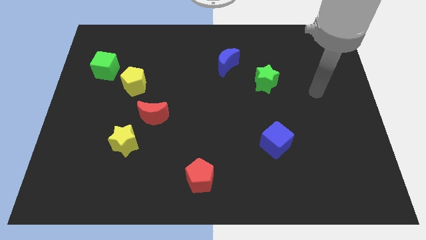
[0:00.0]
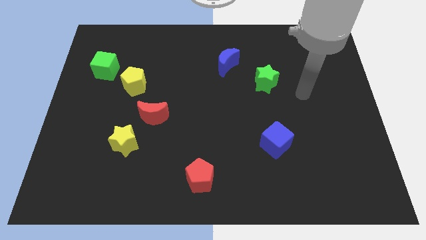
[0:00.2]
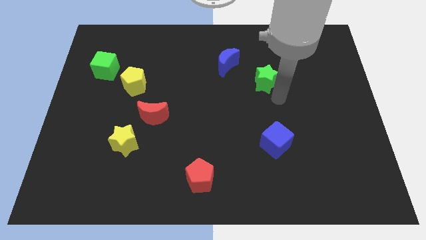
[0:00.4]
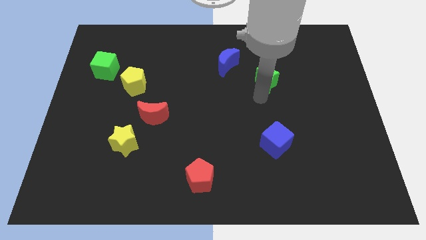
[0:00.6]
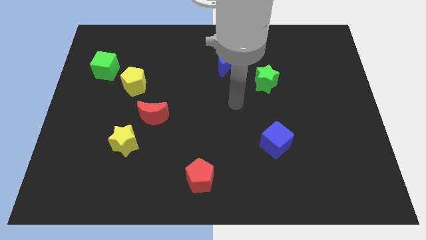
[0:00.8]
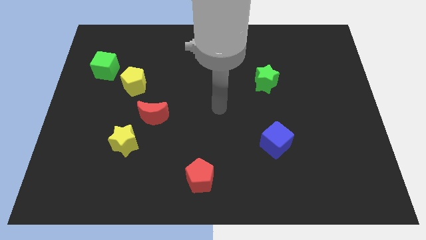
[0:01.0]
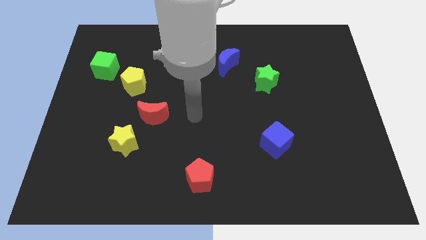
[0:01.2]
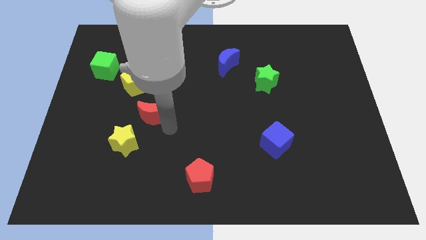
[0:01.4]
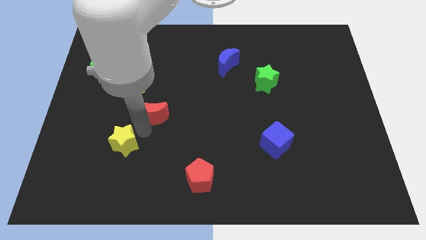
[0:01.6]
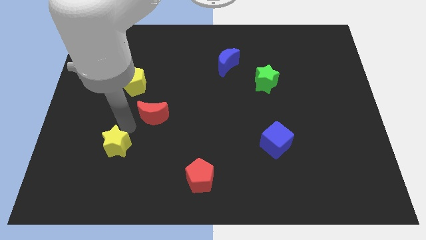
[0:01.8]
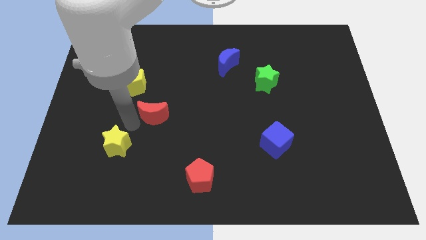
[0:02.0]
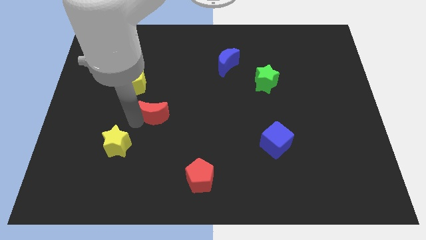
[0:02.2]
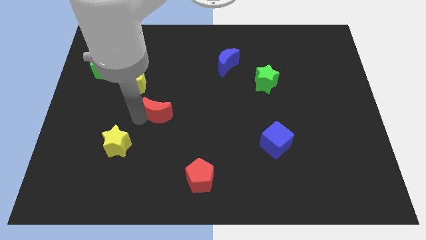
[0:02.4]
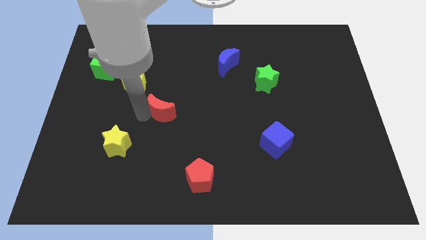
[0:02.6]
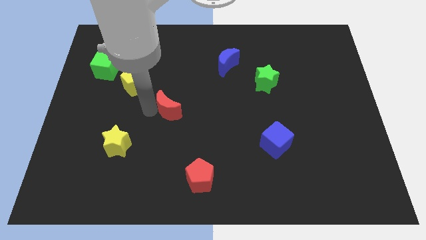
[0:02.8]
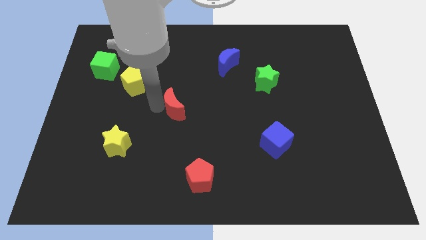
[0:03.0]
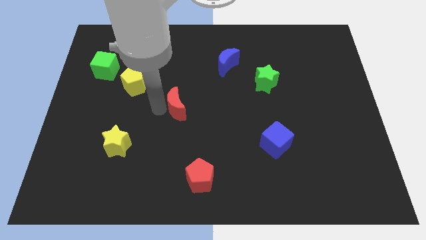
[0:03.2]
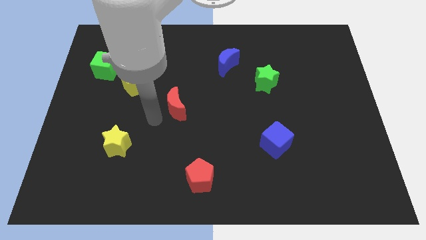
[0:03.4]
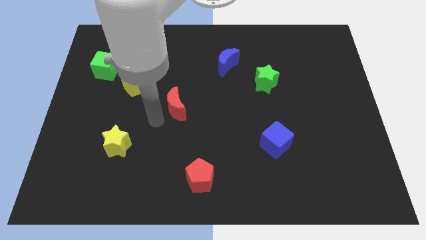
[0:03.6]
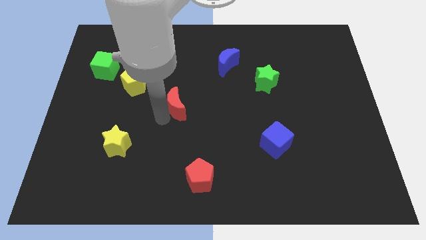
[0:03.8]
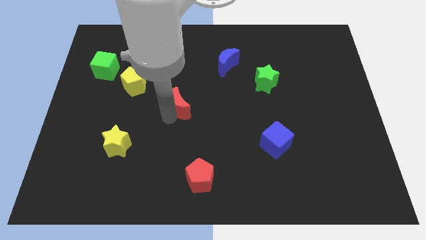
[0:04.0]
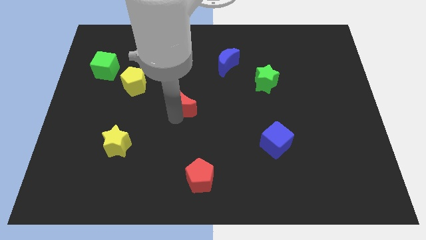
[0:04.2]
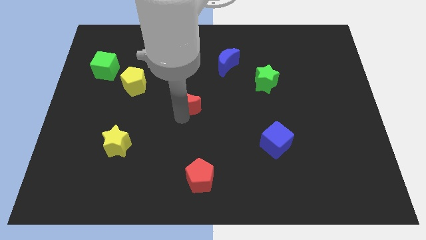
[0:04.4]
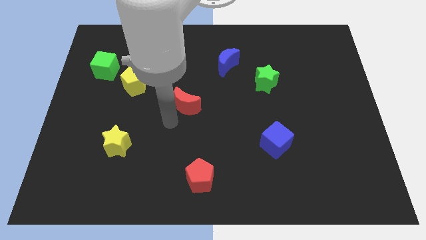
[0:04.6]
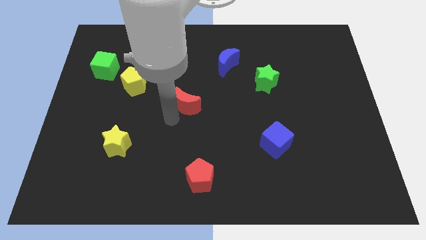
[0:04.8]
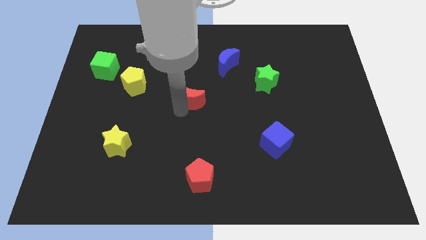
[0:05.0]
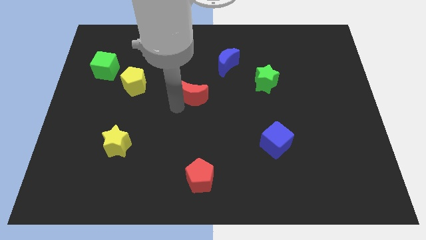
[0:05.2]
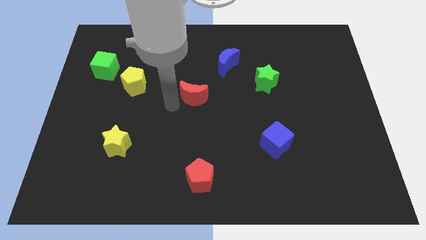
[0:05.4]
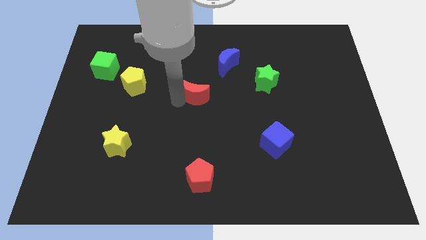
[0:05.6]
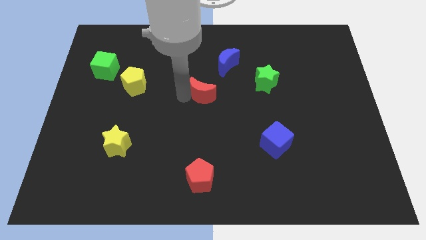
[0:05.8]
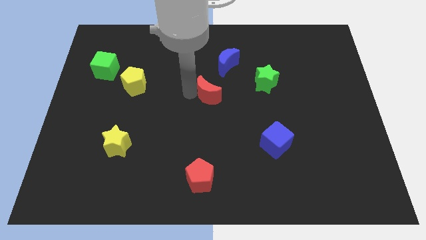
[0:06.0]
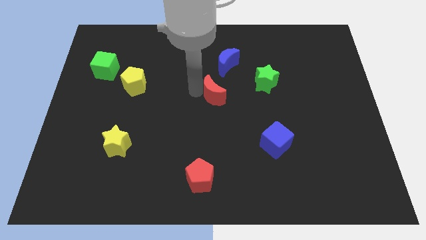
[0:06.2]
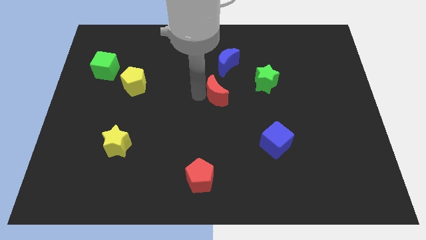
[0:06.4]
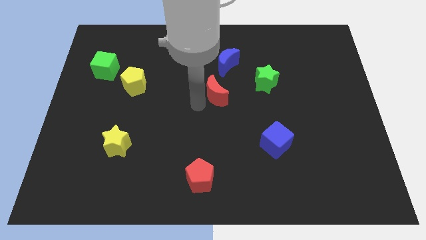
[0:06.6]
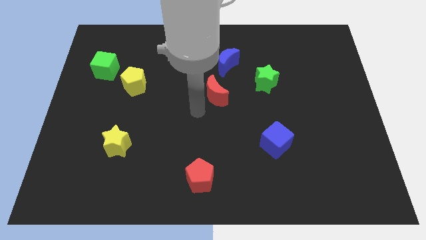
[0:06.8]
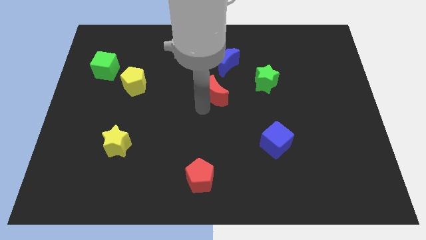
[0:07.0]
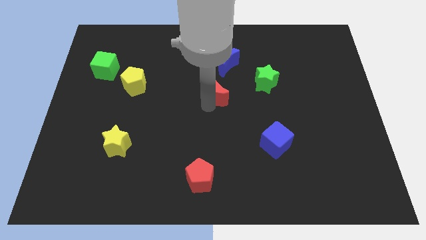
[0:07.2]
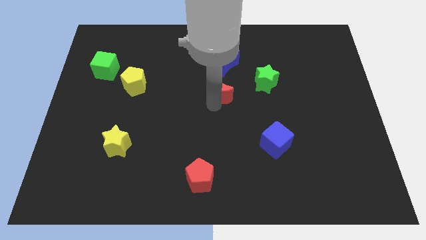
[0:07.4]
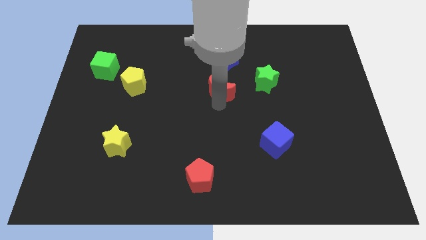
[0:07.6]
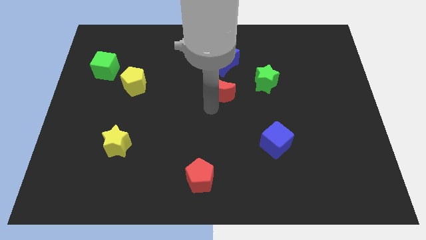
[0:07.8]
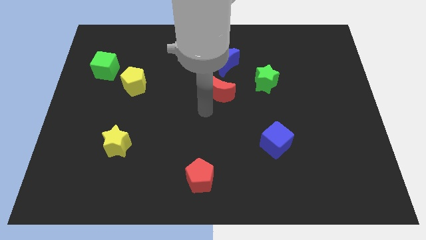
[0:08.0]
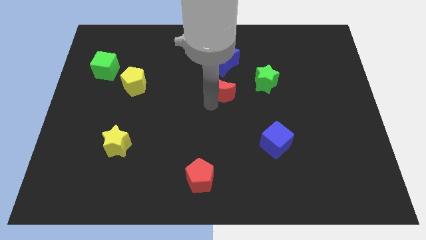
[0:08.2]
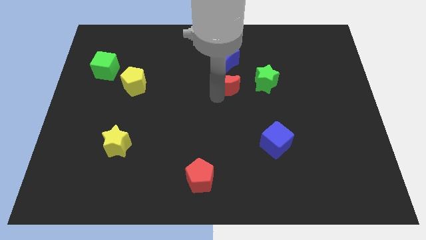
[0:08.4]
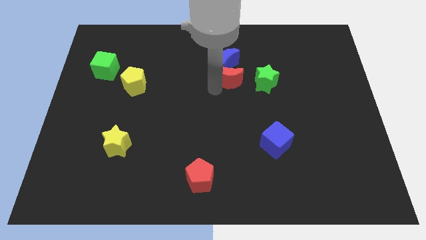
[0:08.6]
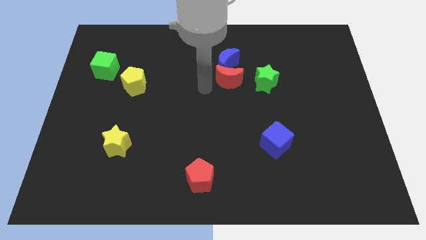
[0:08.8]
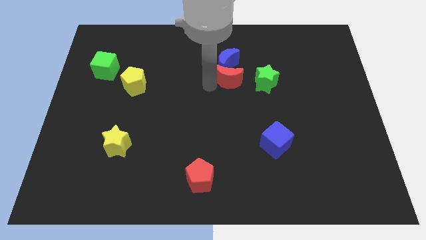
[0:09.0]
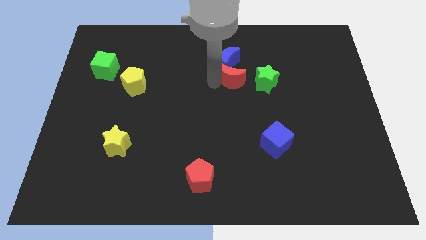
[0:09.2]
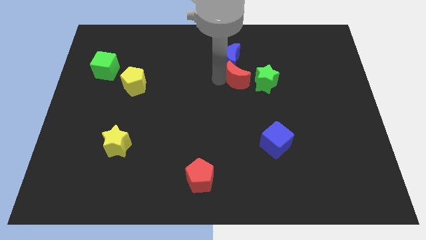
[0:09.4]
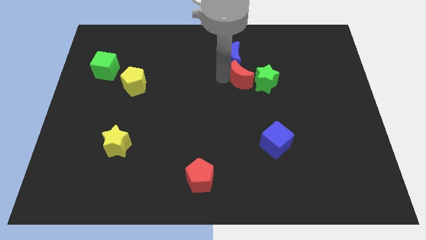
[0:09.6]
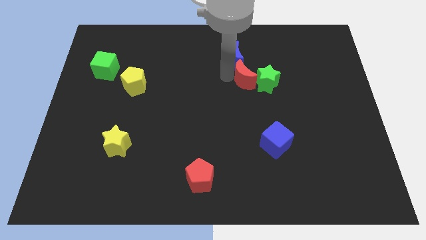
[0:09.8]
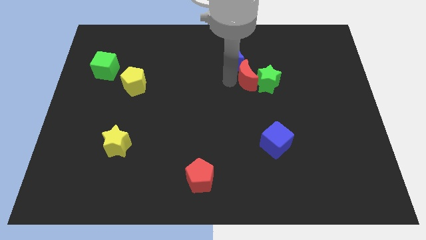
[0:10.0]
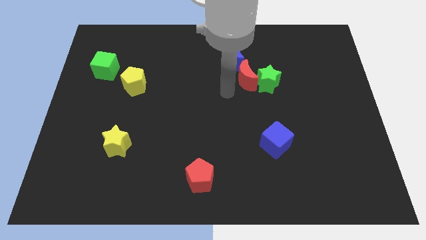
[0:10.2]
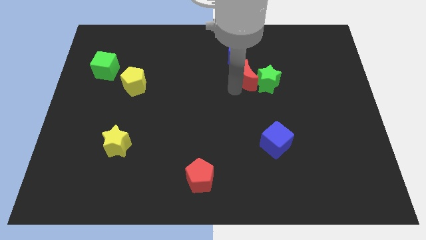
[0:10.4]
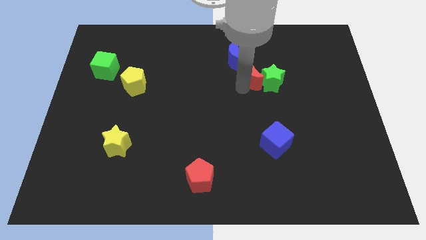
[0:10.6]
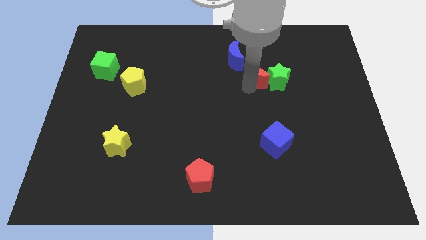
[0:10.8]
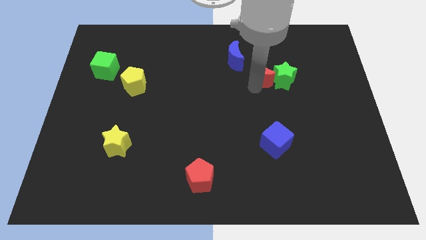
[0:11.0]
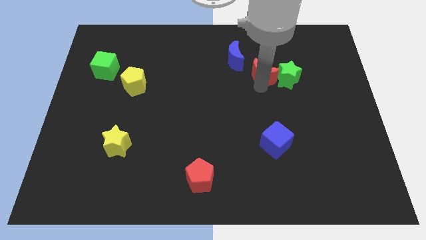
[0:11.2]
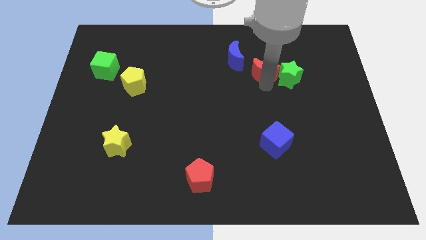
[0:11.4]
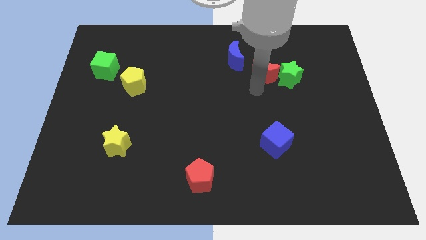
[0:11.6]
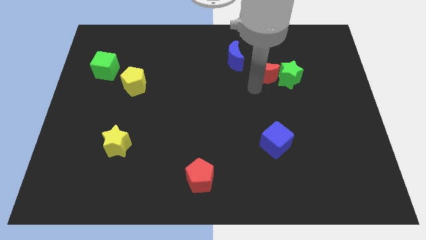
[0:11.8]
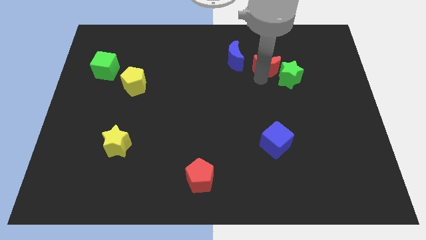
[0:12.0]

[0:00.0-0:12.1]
move the red moon right of the blue moon

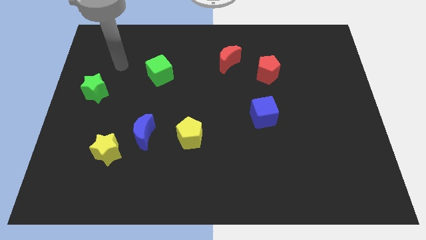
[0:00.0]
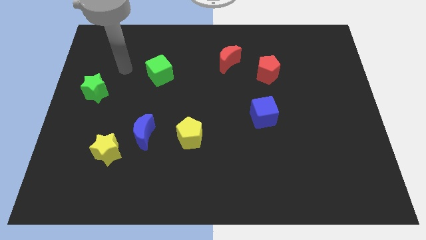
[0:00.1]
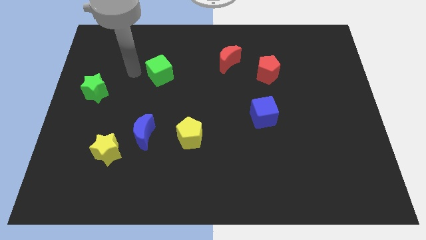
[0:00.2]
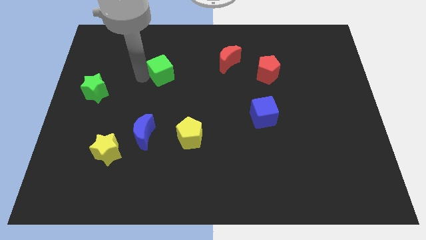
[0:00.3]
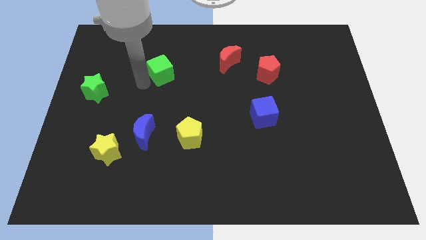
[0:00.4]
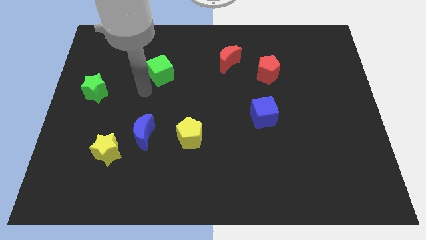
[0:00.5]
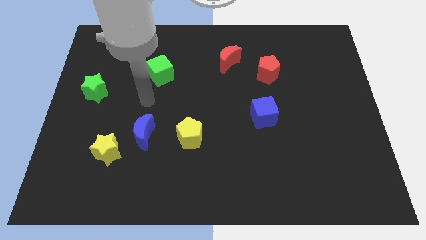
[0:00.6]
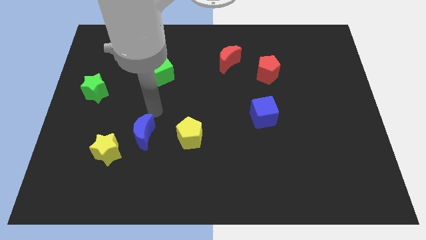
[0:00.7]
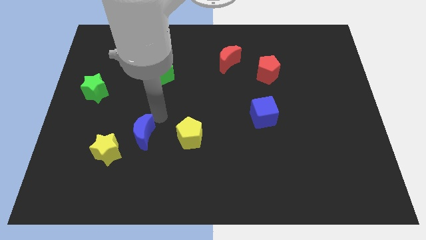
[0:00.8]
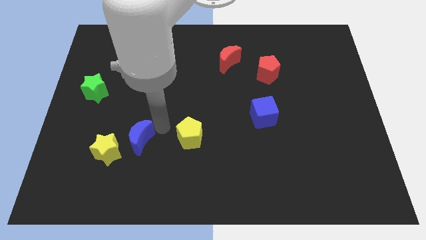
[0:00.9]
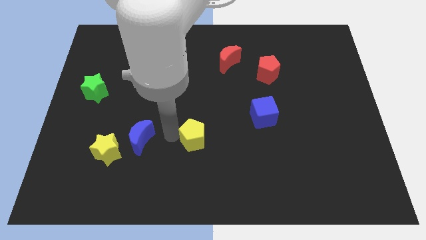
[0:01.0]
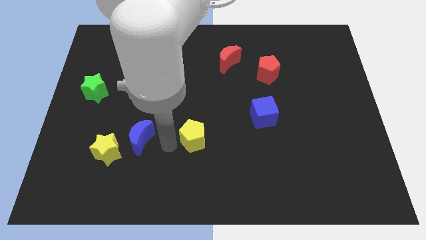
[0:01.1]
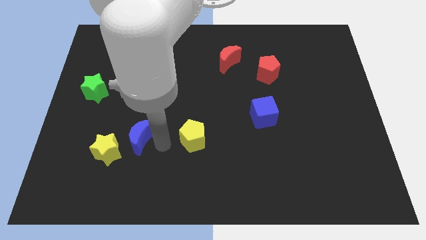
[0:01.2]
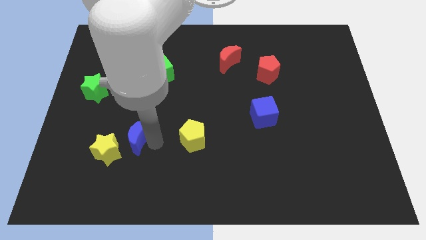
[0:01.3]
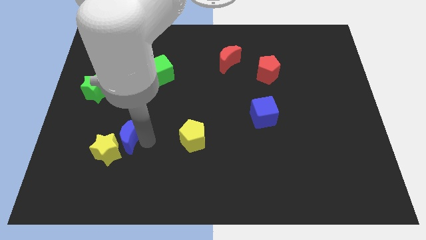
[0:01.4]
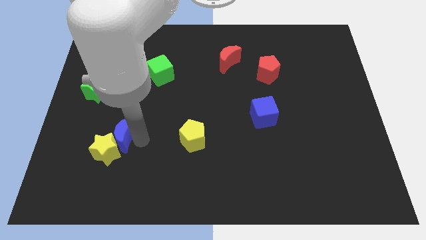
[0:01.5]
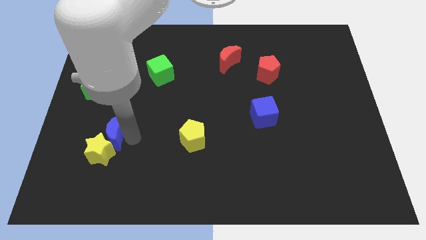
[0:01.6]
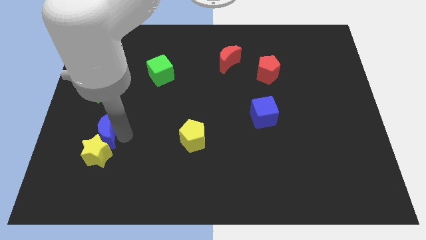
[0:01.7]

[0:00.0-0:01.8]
put the blue moon to the top left of the yellow star
